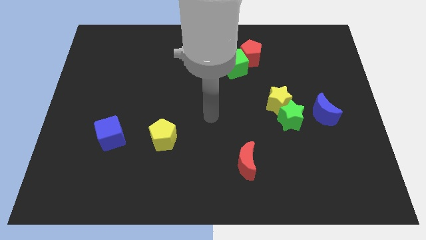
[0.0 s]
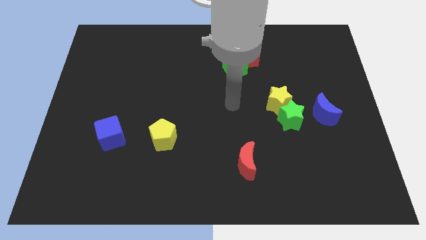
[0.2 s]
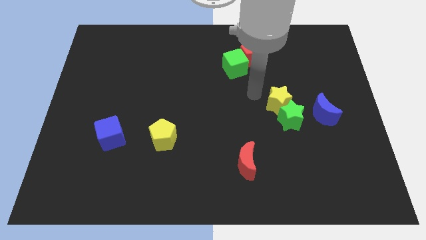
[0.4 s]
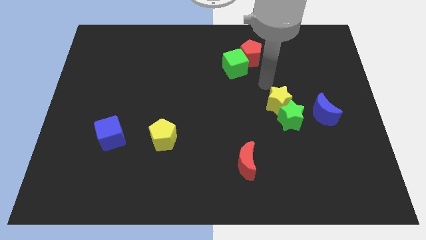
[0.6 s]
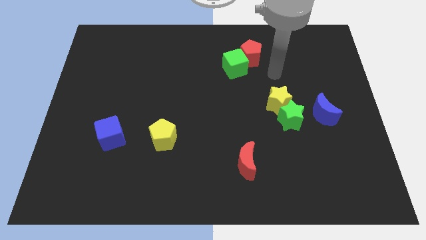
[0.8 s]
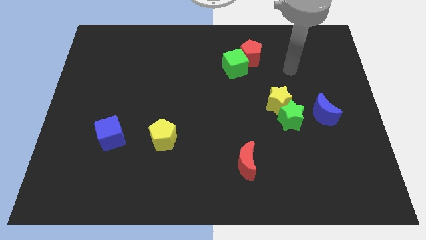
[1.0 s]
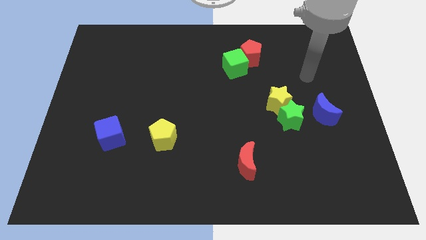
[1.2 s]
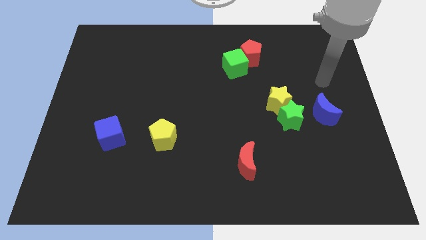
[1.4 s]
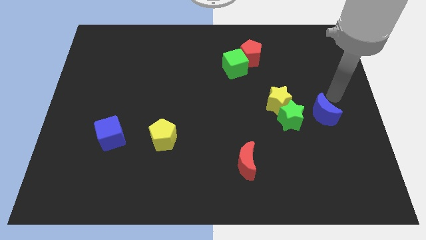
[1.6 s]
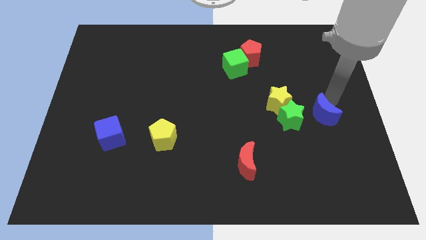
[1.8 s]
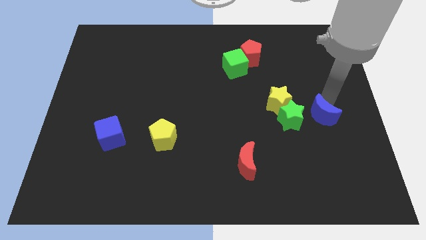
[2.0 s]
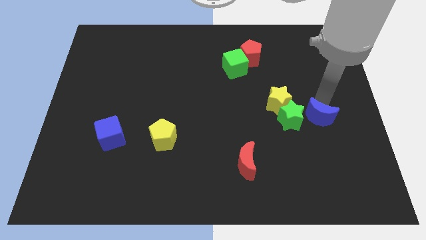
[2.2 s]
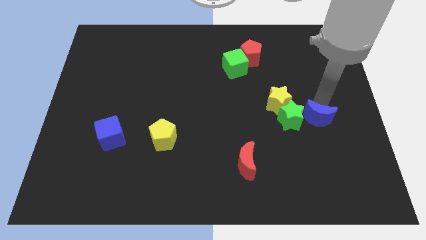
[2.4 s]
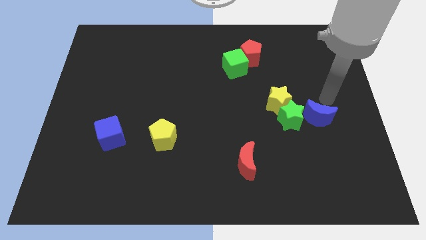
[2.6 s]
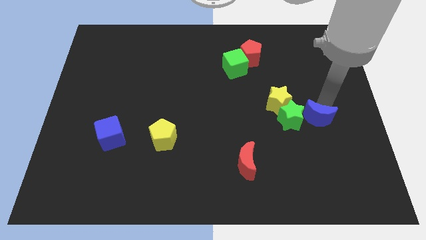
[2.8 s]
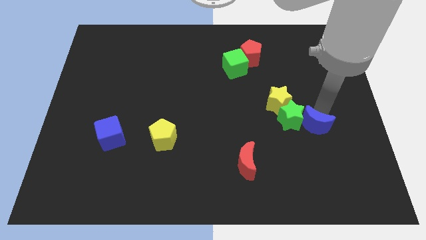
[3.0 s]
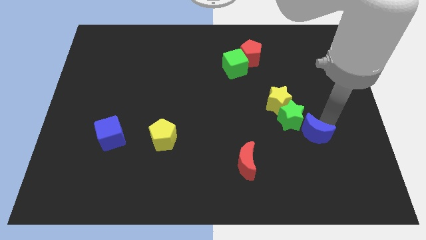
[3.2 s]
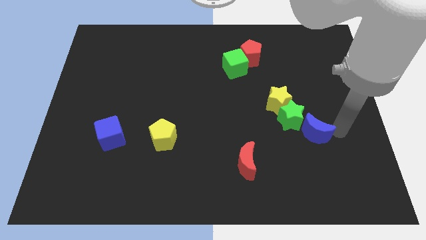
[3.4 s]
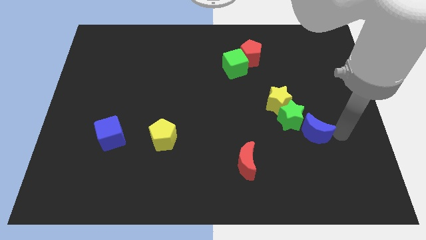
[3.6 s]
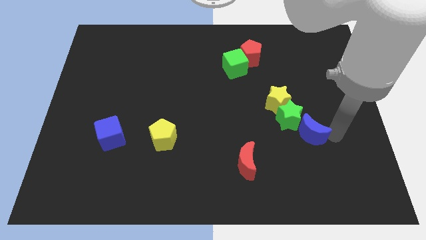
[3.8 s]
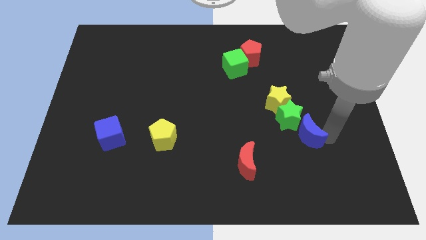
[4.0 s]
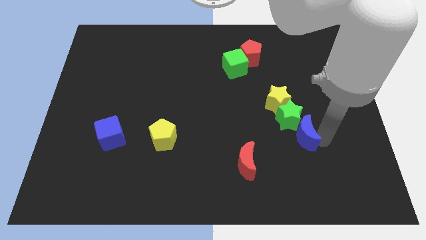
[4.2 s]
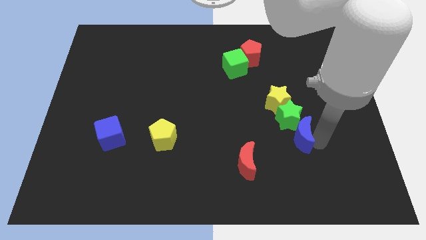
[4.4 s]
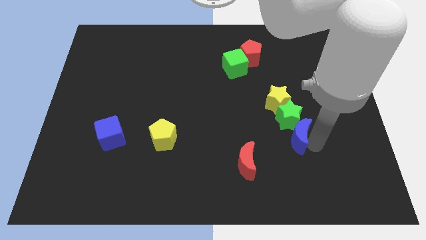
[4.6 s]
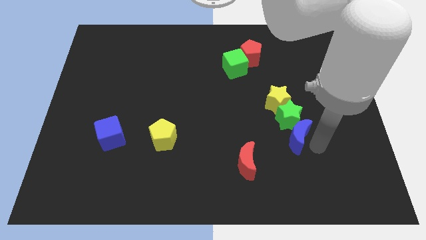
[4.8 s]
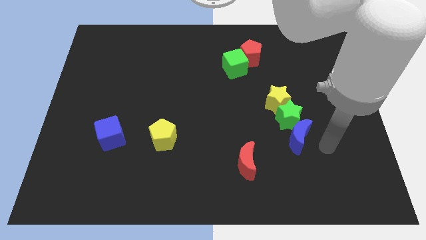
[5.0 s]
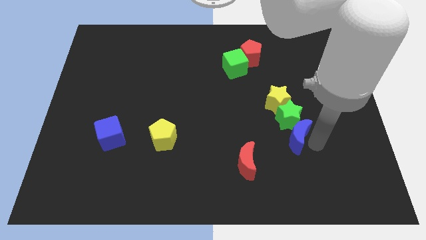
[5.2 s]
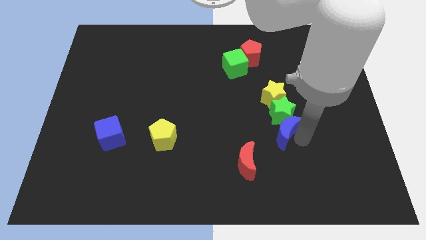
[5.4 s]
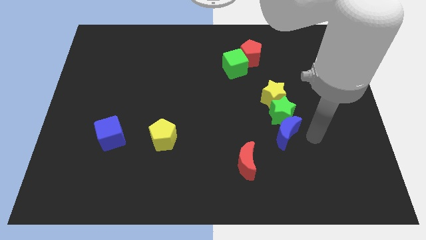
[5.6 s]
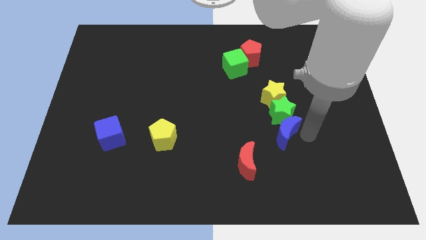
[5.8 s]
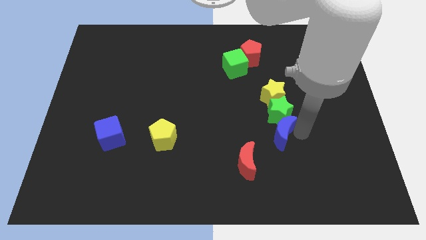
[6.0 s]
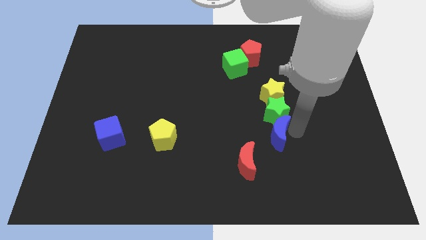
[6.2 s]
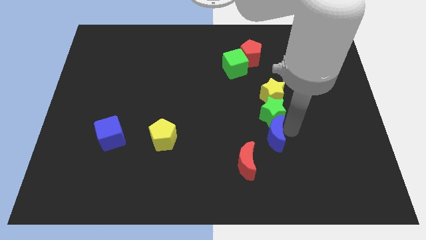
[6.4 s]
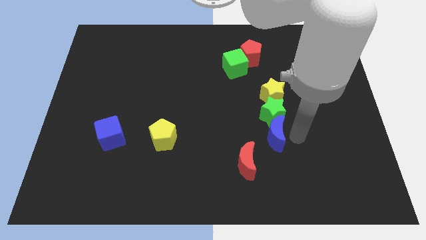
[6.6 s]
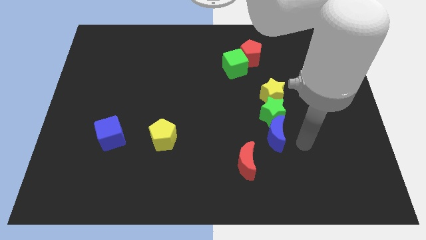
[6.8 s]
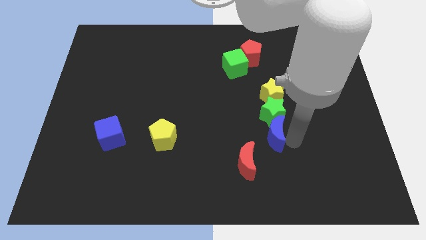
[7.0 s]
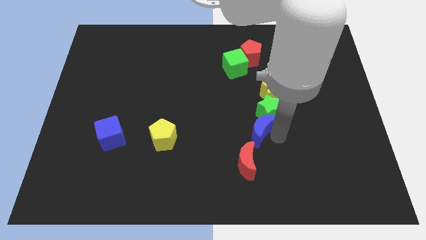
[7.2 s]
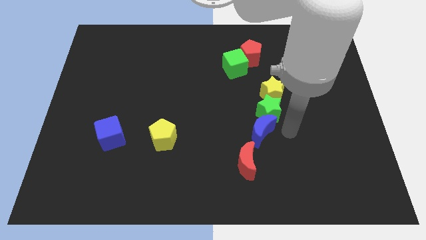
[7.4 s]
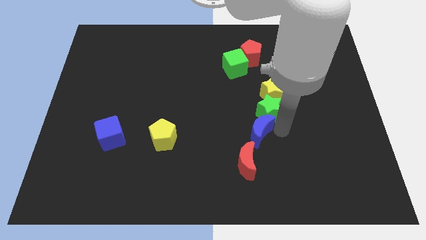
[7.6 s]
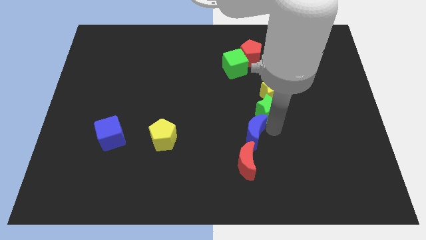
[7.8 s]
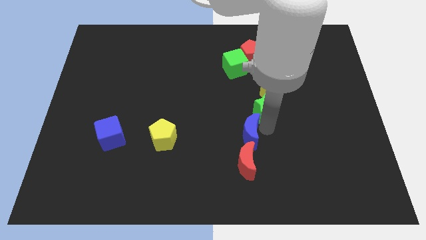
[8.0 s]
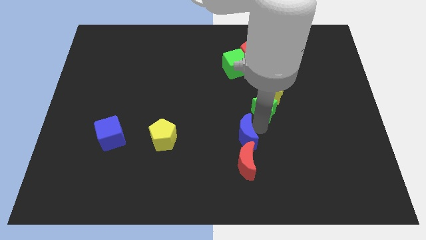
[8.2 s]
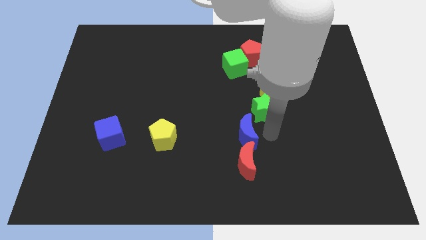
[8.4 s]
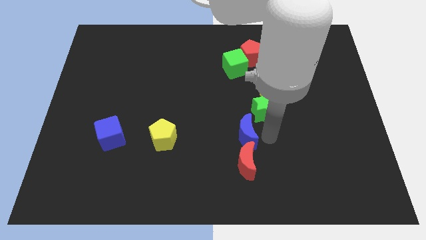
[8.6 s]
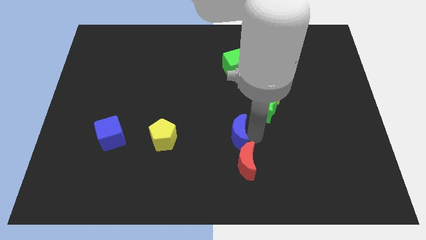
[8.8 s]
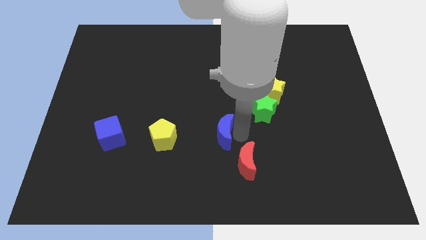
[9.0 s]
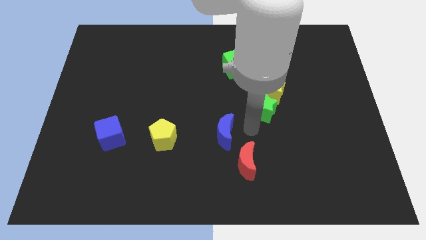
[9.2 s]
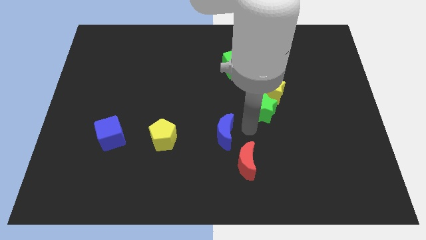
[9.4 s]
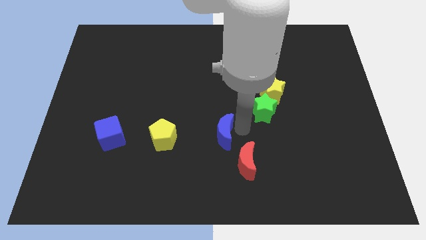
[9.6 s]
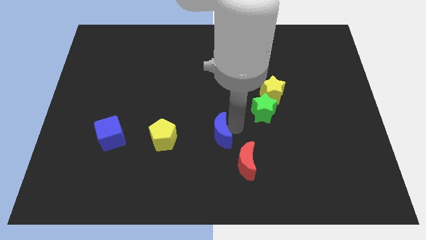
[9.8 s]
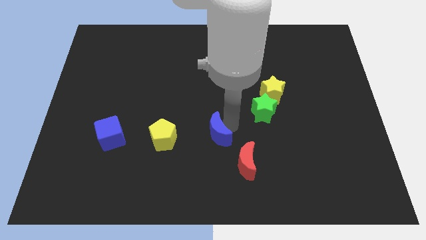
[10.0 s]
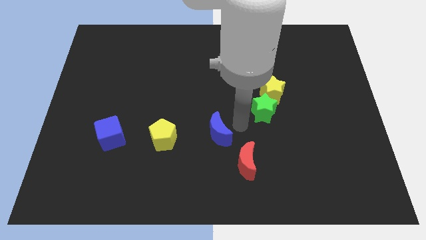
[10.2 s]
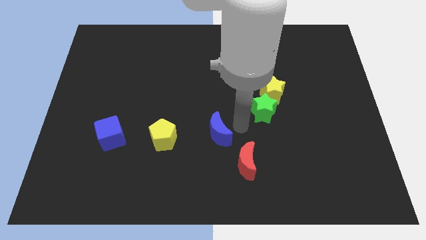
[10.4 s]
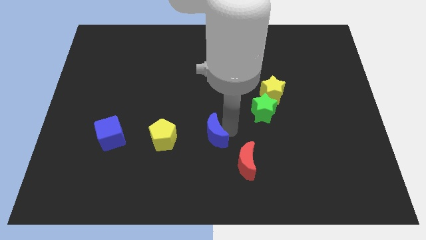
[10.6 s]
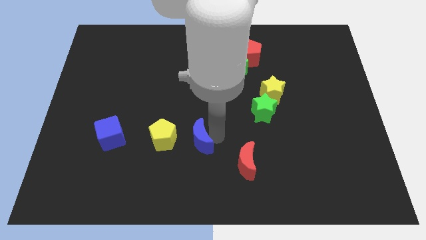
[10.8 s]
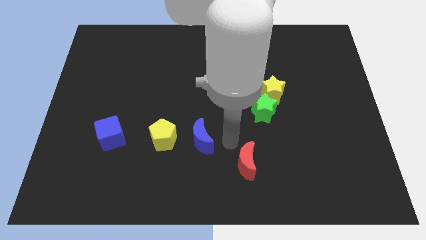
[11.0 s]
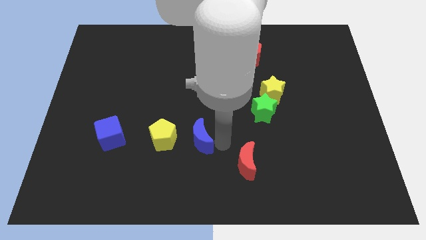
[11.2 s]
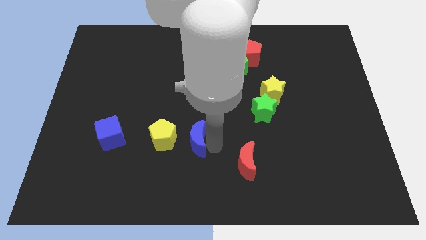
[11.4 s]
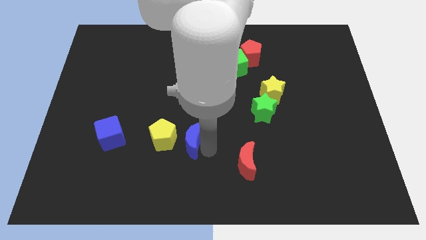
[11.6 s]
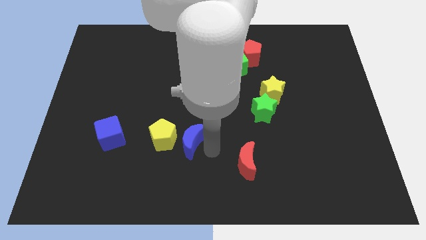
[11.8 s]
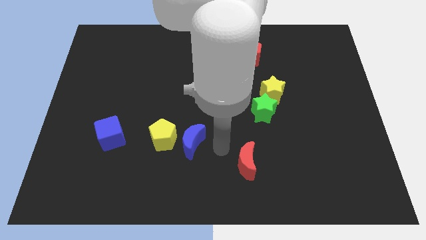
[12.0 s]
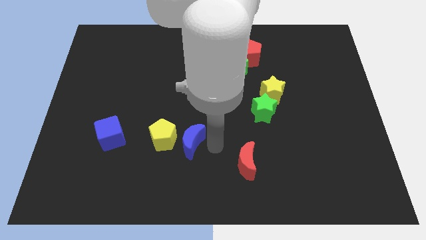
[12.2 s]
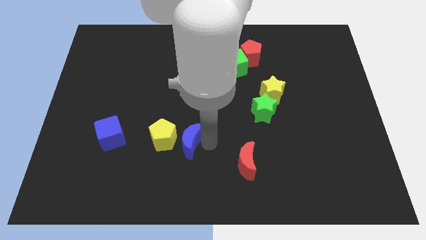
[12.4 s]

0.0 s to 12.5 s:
put the blue moon next to the yellow pentagon

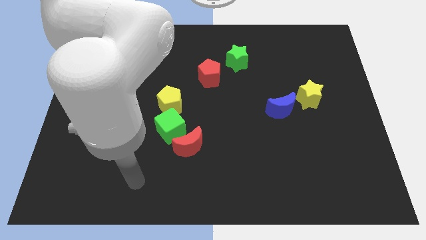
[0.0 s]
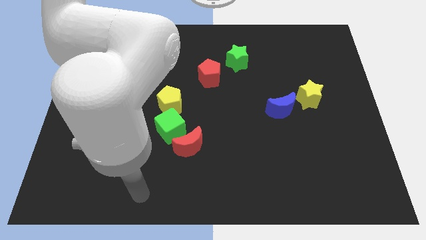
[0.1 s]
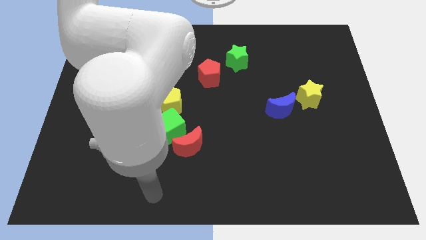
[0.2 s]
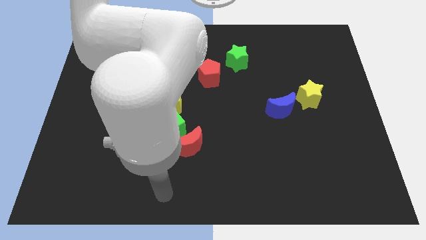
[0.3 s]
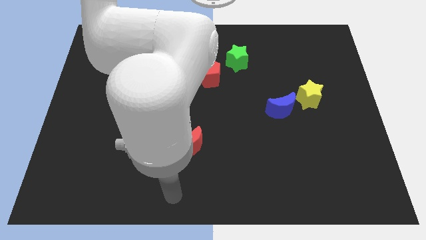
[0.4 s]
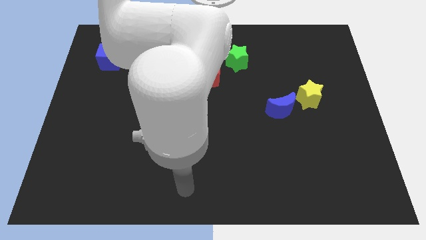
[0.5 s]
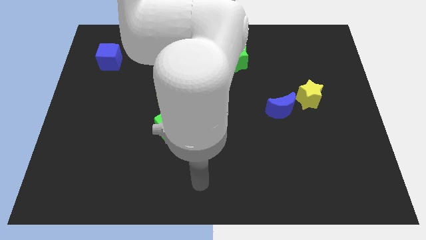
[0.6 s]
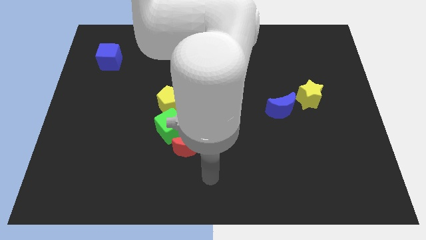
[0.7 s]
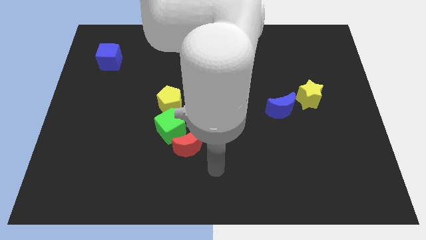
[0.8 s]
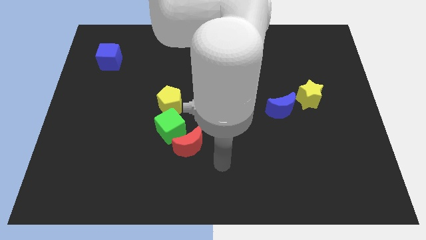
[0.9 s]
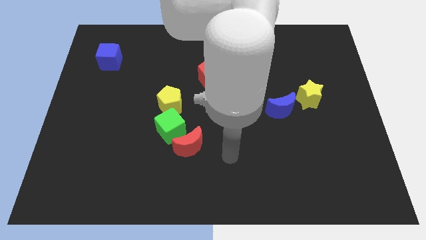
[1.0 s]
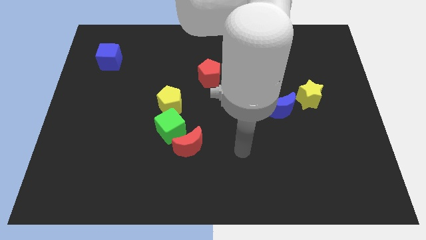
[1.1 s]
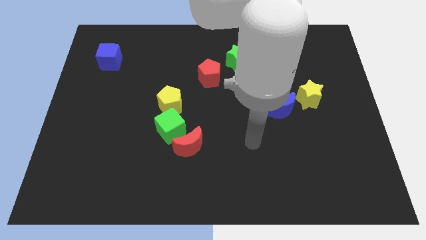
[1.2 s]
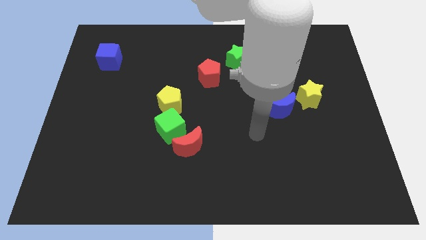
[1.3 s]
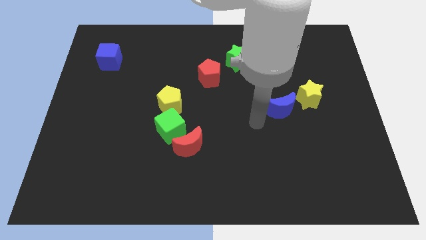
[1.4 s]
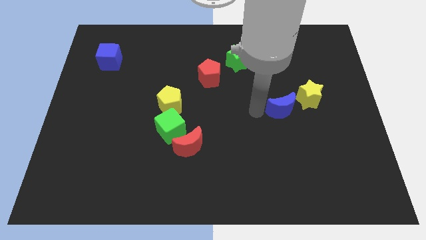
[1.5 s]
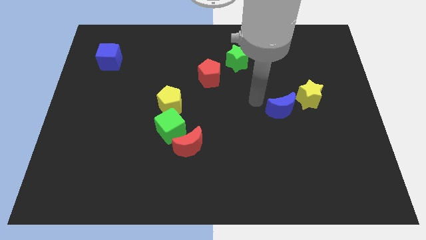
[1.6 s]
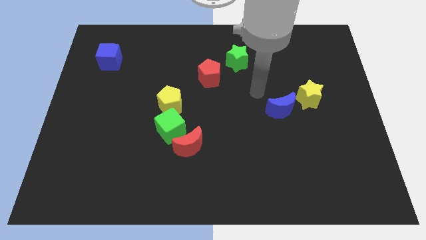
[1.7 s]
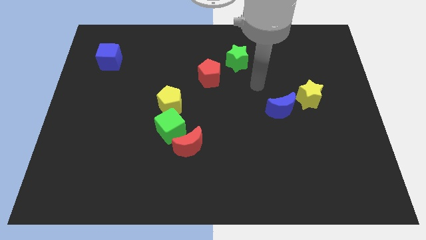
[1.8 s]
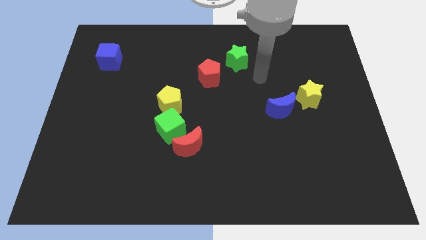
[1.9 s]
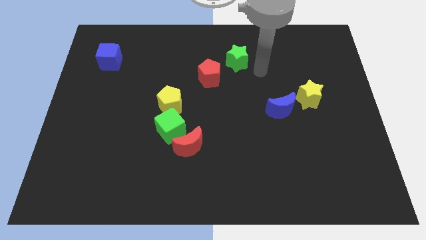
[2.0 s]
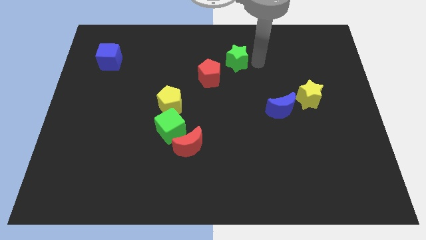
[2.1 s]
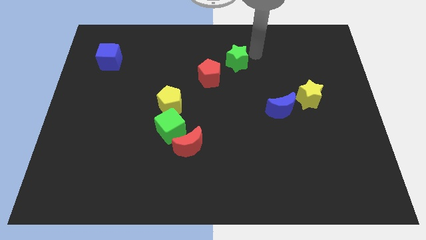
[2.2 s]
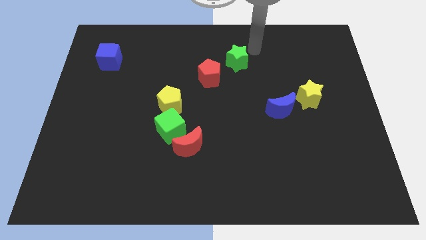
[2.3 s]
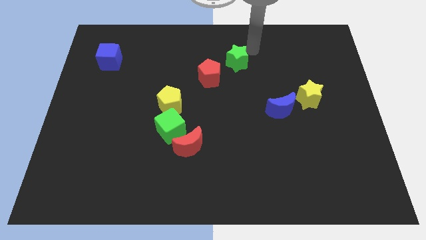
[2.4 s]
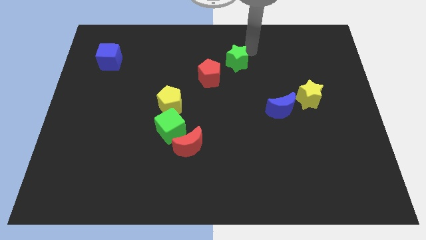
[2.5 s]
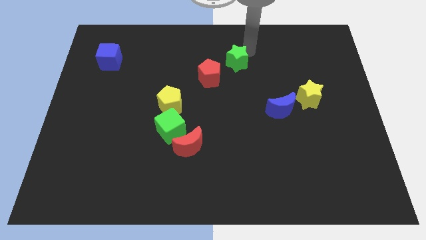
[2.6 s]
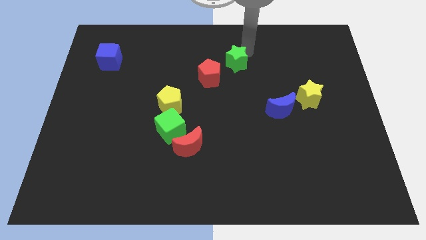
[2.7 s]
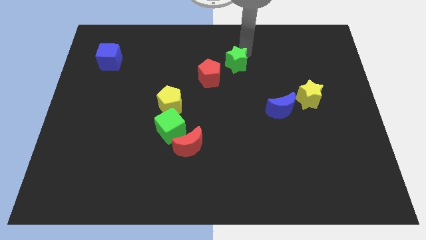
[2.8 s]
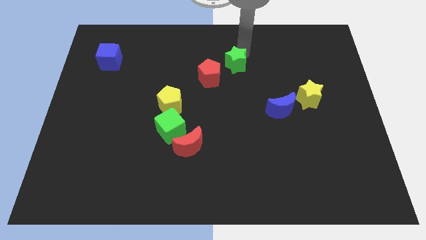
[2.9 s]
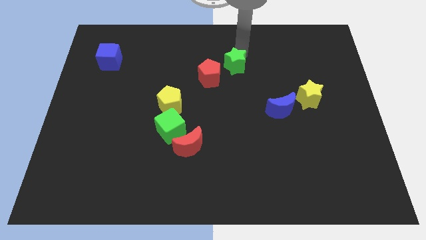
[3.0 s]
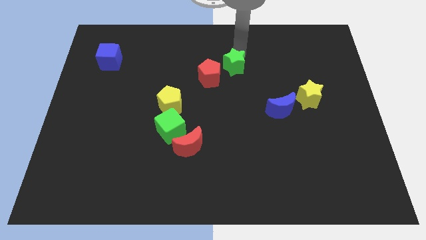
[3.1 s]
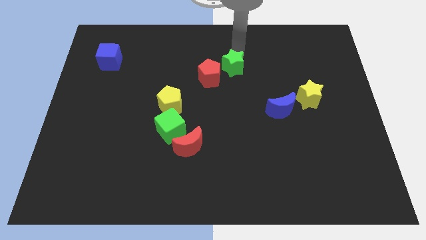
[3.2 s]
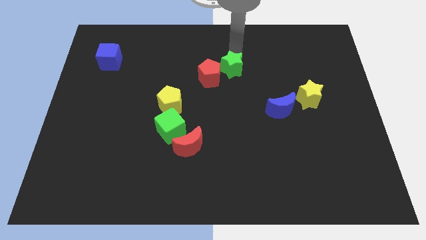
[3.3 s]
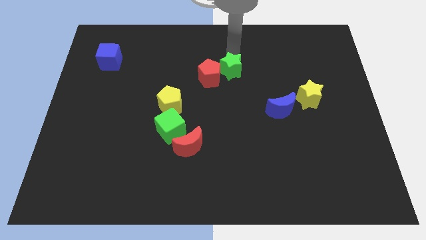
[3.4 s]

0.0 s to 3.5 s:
move the green star to the red pentagon
